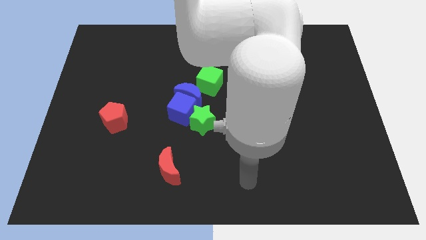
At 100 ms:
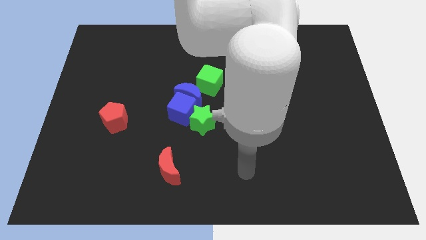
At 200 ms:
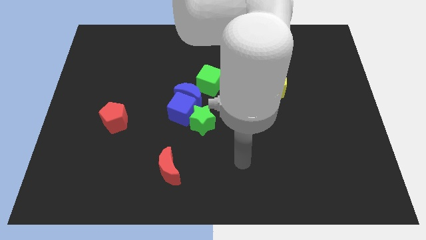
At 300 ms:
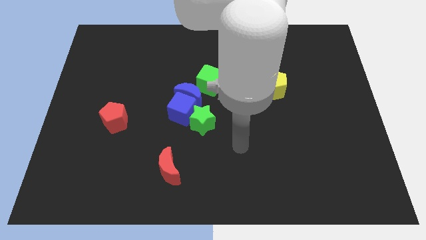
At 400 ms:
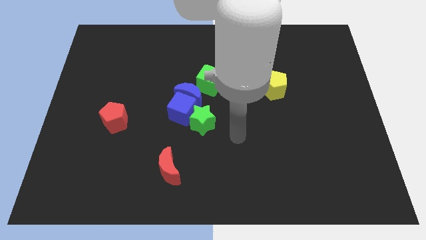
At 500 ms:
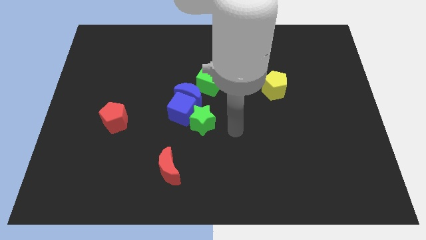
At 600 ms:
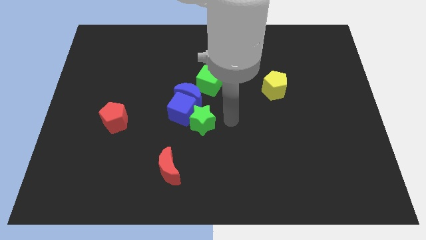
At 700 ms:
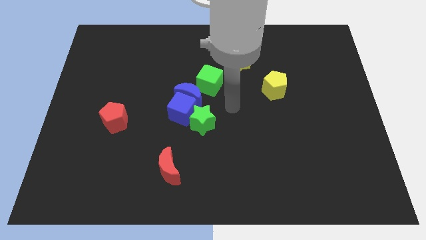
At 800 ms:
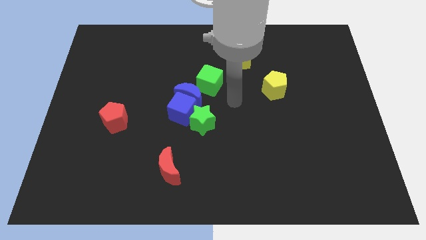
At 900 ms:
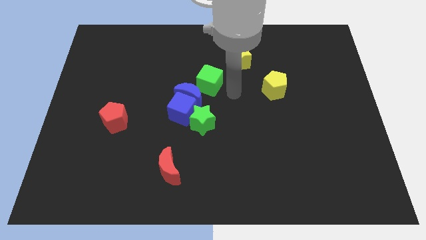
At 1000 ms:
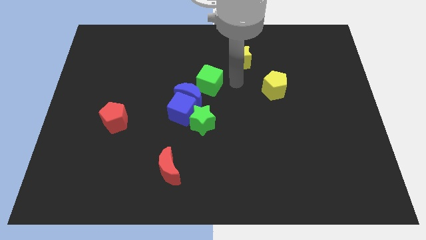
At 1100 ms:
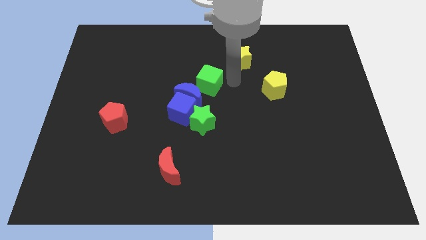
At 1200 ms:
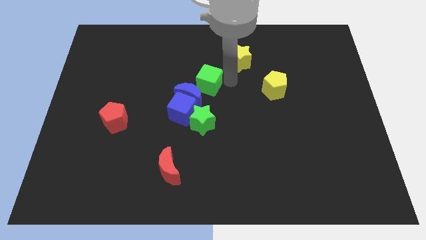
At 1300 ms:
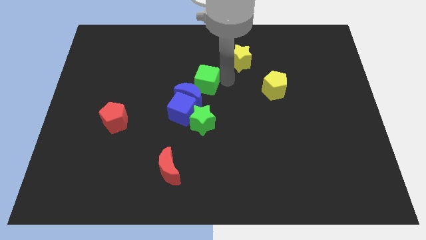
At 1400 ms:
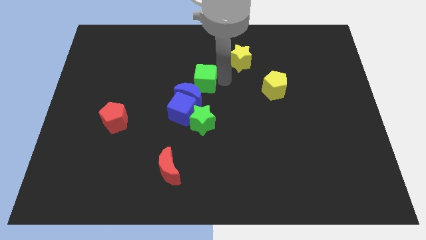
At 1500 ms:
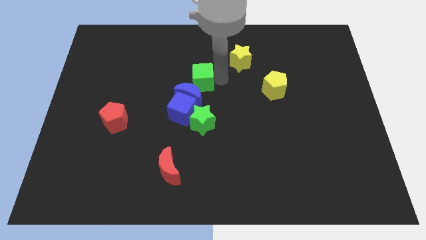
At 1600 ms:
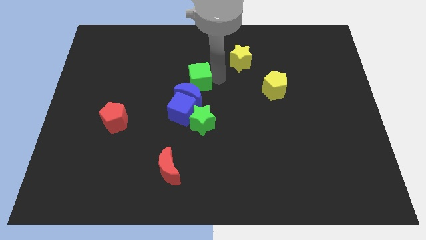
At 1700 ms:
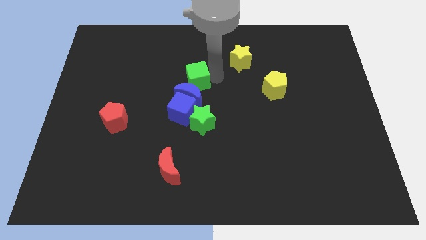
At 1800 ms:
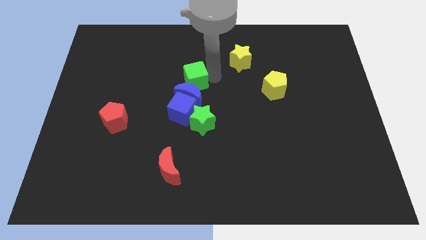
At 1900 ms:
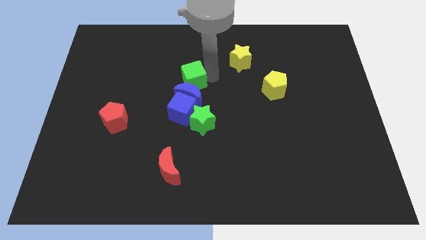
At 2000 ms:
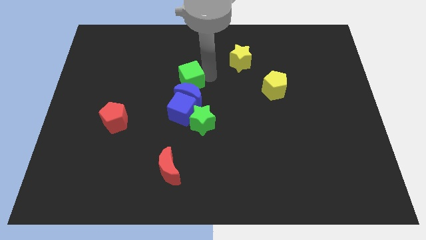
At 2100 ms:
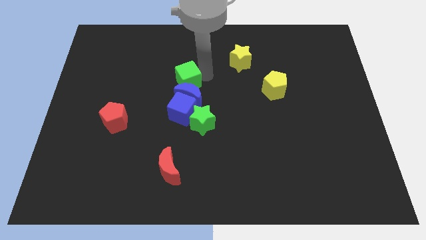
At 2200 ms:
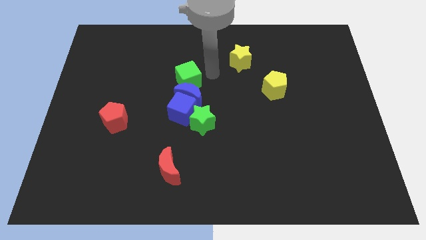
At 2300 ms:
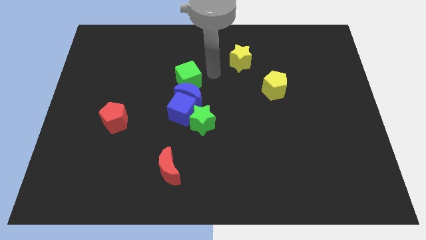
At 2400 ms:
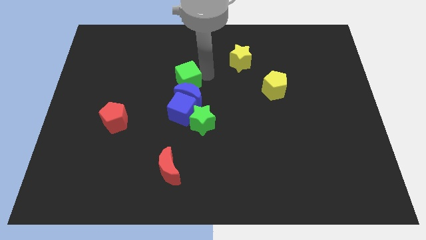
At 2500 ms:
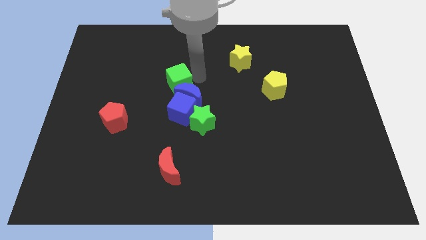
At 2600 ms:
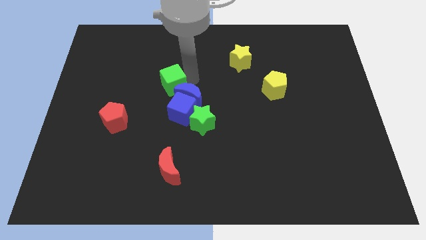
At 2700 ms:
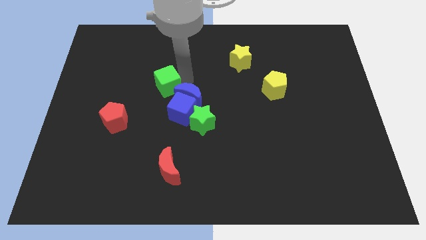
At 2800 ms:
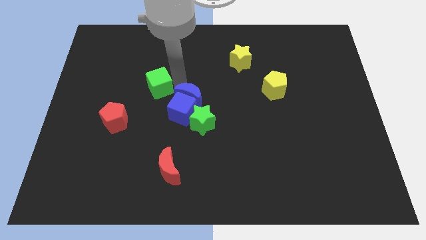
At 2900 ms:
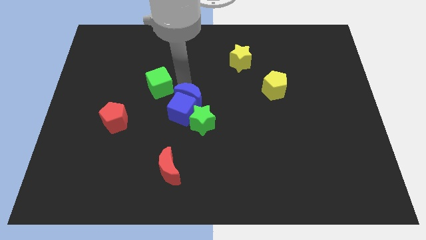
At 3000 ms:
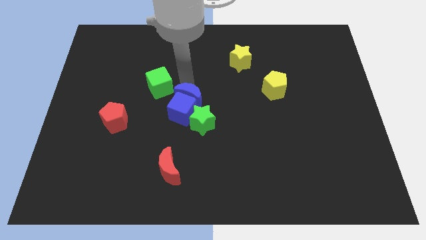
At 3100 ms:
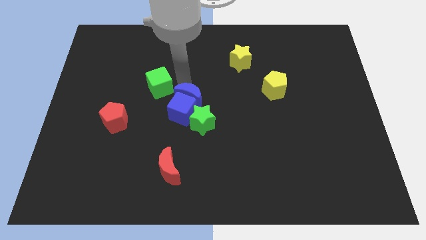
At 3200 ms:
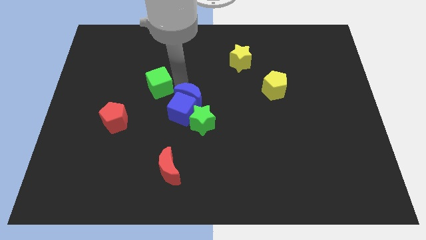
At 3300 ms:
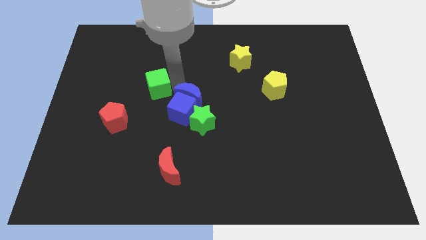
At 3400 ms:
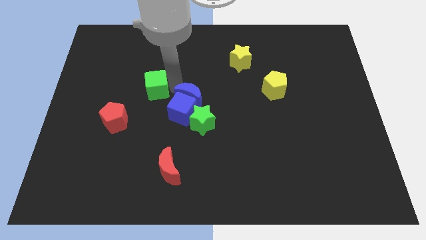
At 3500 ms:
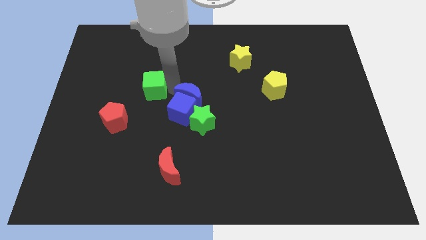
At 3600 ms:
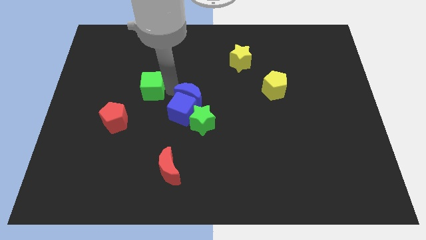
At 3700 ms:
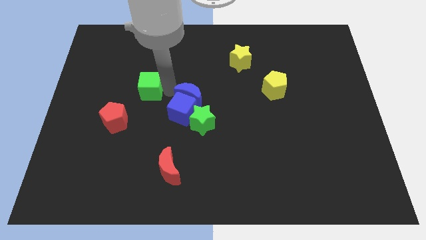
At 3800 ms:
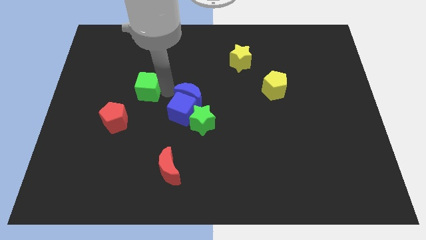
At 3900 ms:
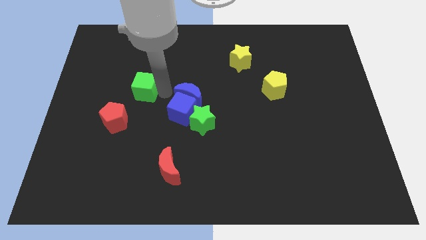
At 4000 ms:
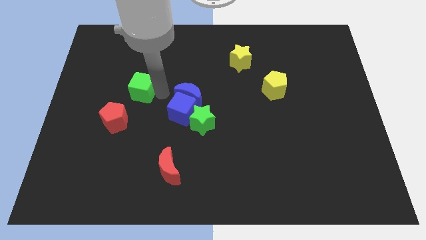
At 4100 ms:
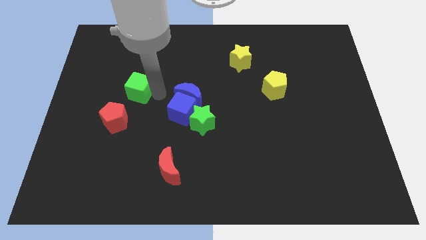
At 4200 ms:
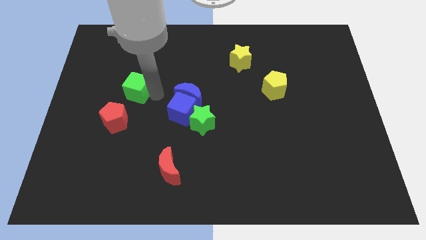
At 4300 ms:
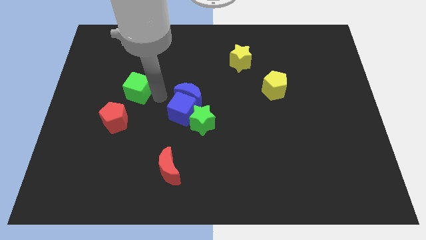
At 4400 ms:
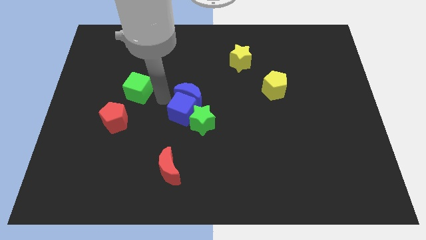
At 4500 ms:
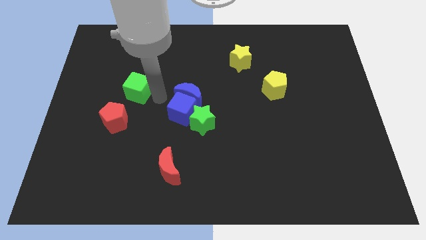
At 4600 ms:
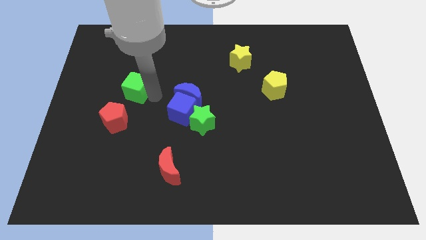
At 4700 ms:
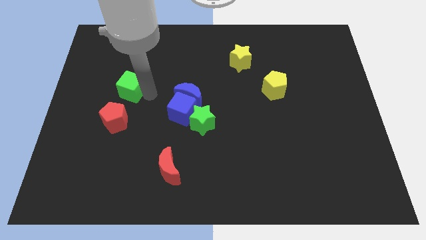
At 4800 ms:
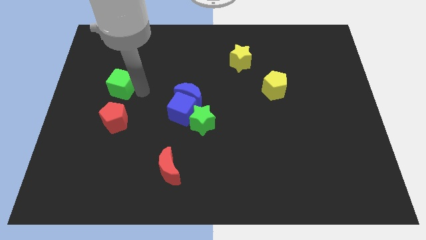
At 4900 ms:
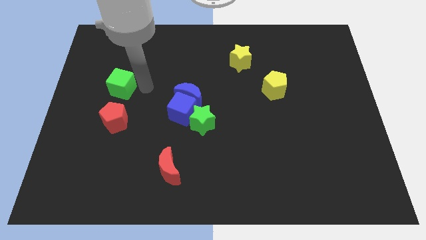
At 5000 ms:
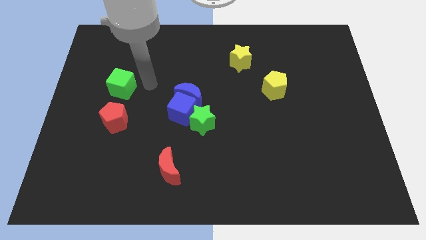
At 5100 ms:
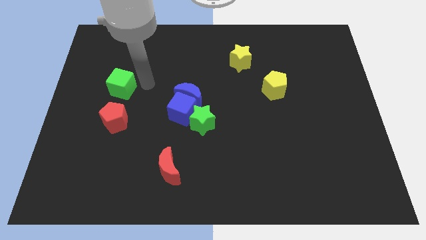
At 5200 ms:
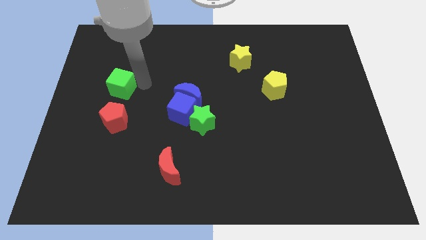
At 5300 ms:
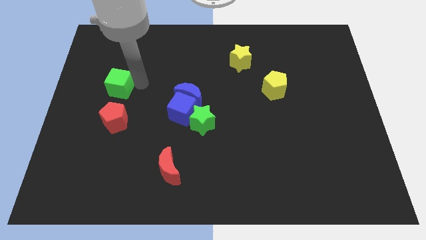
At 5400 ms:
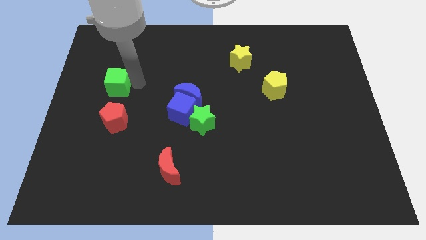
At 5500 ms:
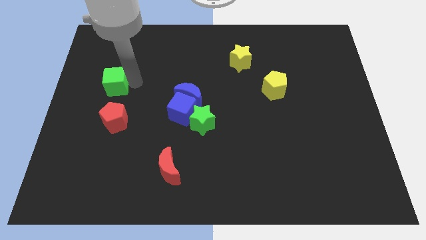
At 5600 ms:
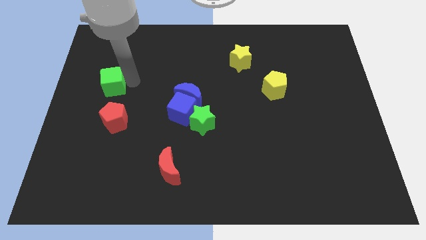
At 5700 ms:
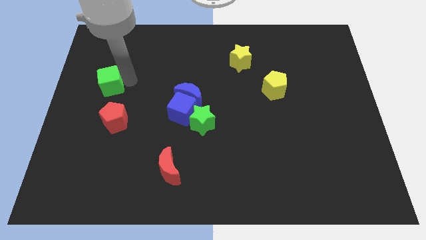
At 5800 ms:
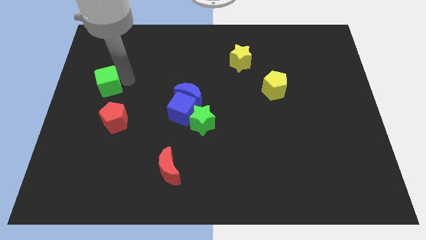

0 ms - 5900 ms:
push the green cube to the left side

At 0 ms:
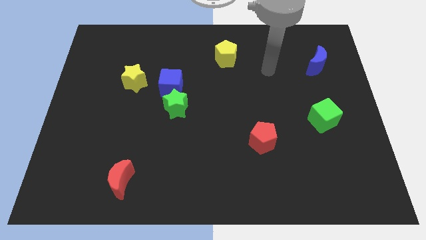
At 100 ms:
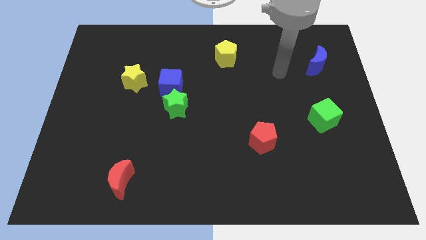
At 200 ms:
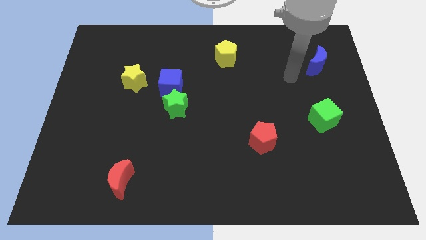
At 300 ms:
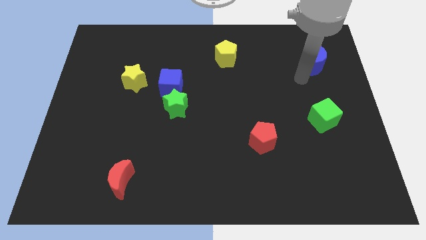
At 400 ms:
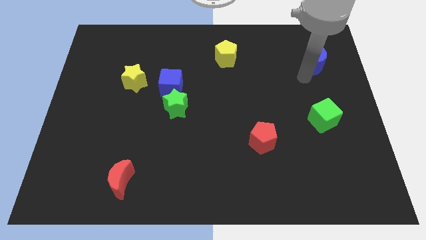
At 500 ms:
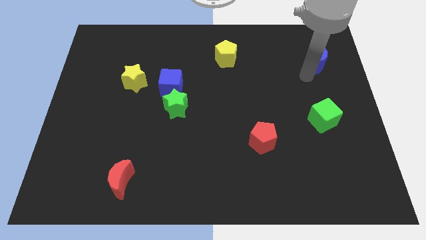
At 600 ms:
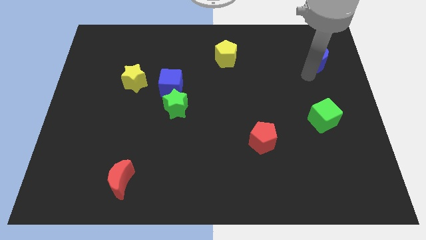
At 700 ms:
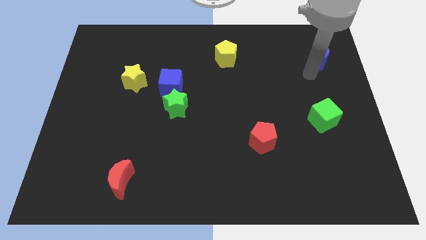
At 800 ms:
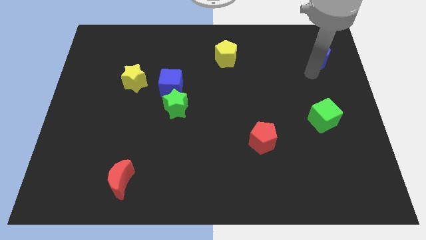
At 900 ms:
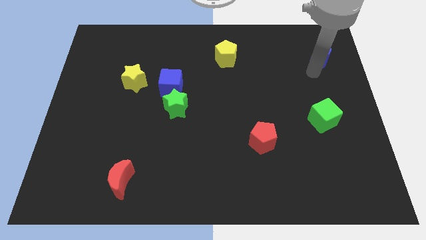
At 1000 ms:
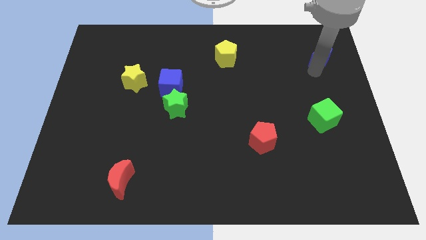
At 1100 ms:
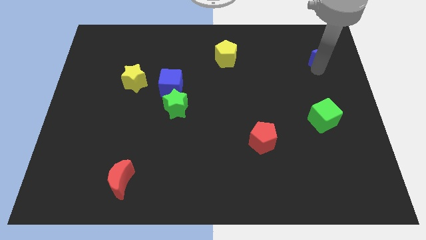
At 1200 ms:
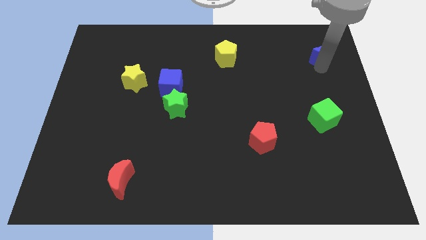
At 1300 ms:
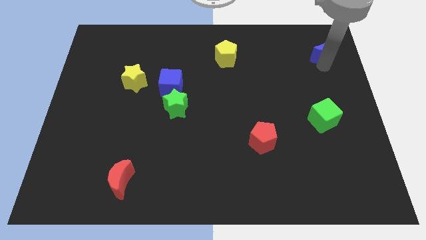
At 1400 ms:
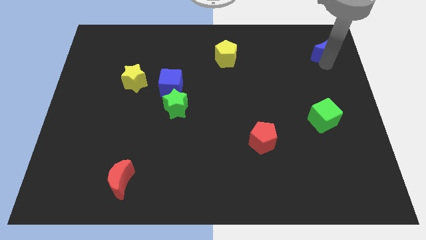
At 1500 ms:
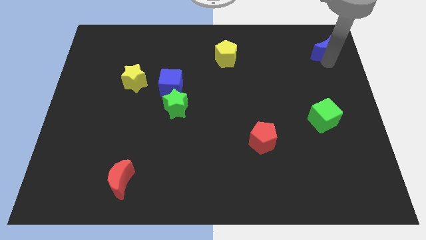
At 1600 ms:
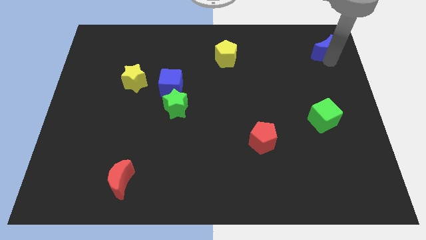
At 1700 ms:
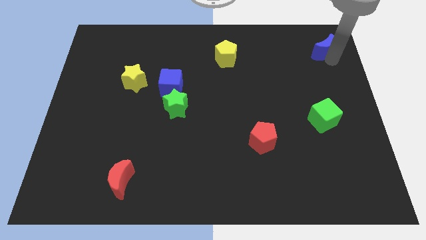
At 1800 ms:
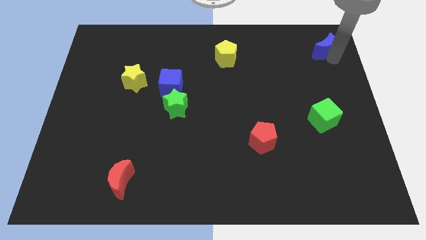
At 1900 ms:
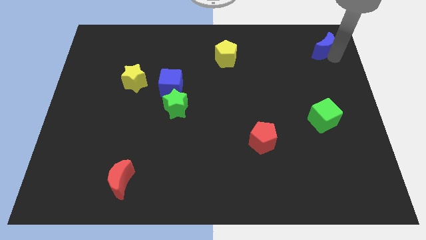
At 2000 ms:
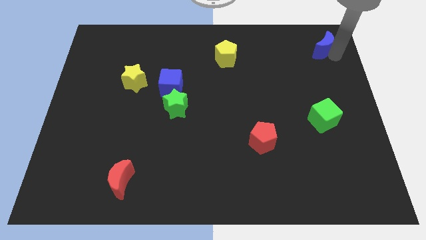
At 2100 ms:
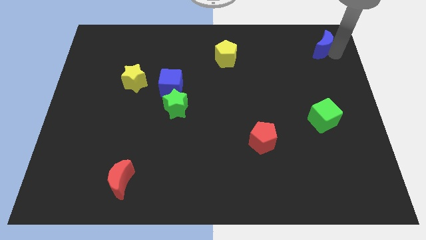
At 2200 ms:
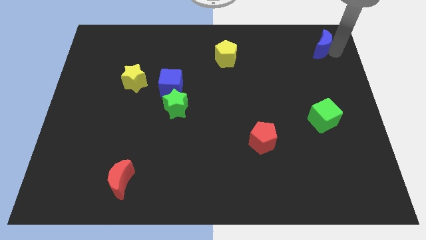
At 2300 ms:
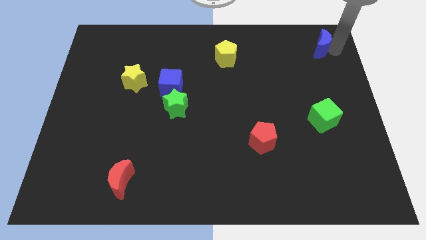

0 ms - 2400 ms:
push the blue moon to the top right corner
